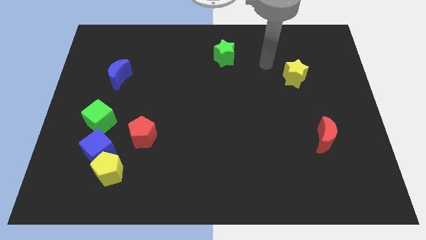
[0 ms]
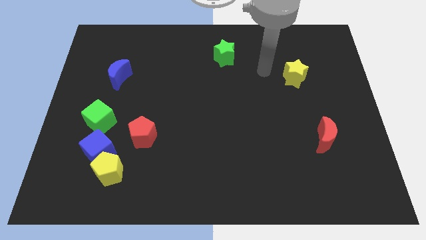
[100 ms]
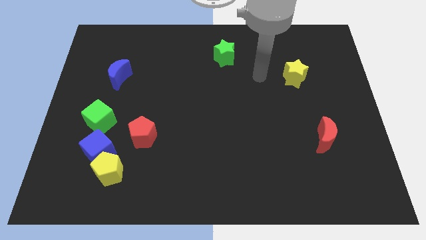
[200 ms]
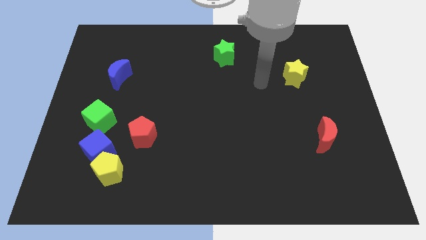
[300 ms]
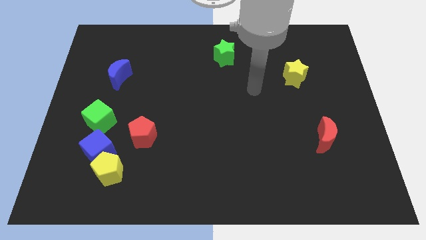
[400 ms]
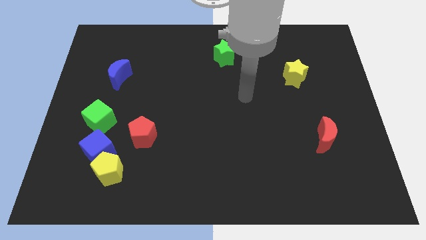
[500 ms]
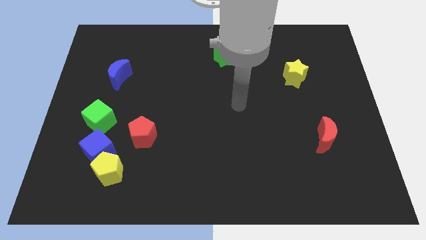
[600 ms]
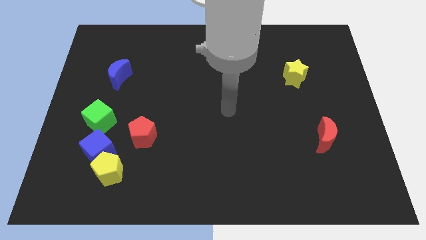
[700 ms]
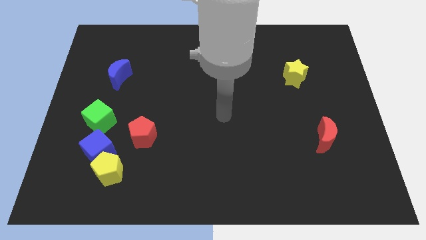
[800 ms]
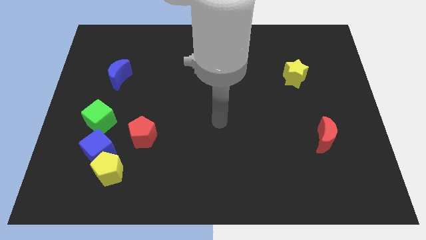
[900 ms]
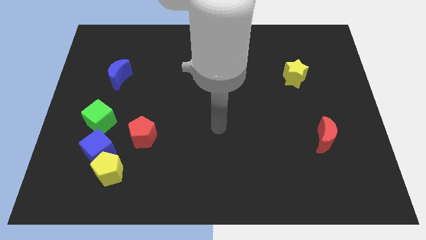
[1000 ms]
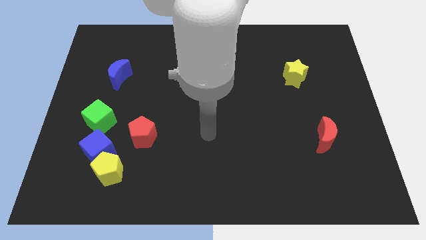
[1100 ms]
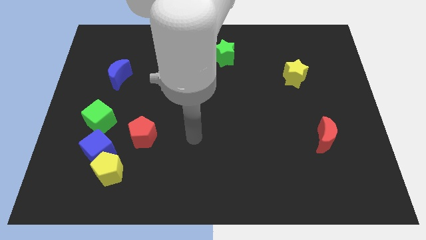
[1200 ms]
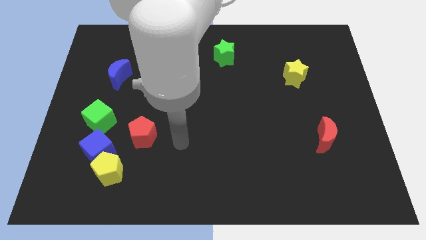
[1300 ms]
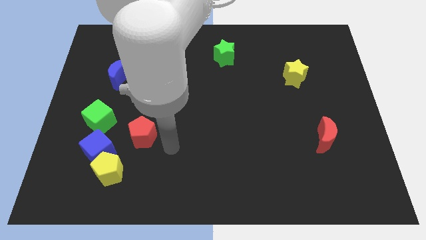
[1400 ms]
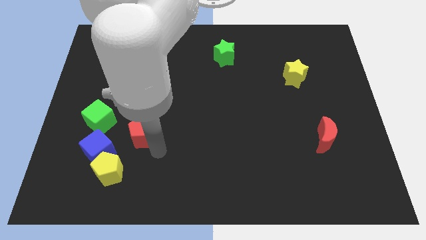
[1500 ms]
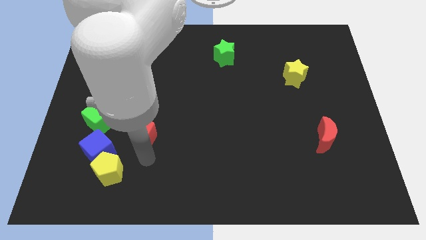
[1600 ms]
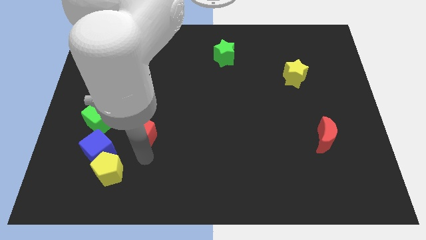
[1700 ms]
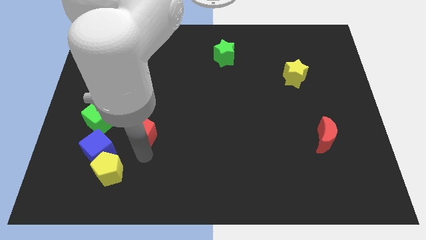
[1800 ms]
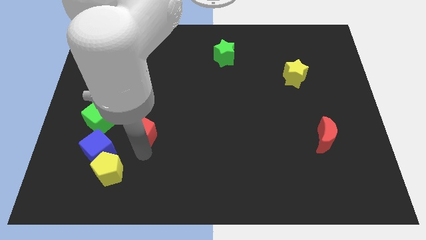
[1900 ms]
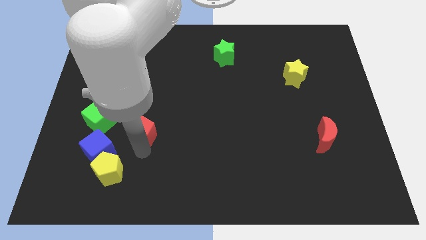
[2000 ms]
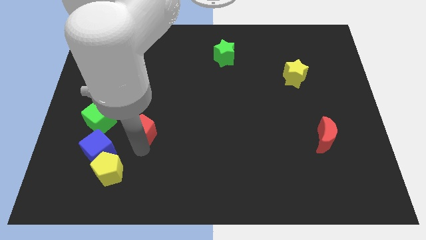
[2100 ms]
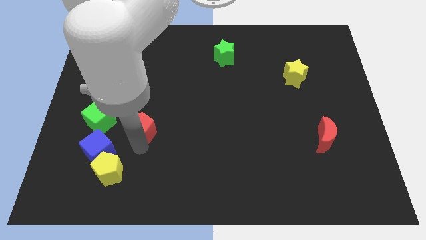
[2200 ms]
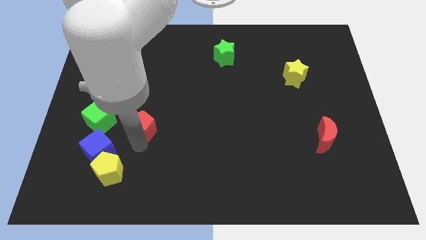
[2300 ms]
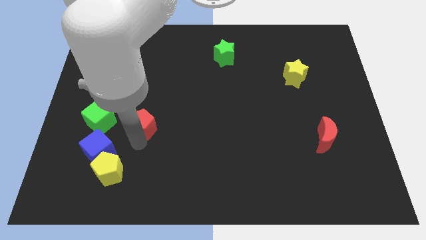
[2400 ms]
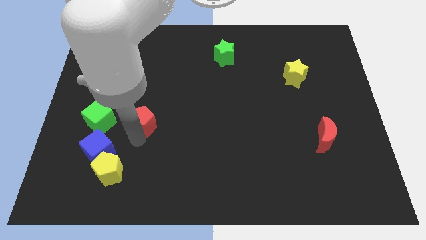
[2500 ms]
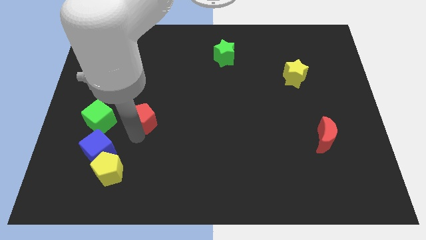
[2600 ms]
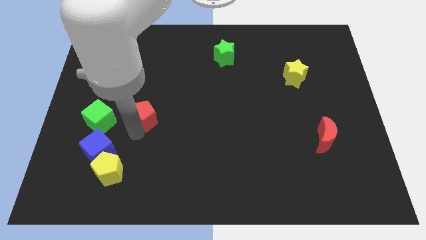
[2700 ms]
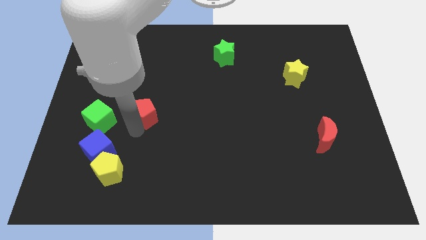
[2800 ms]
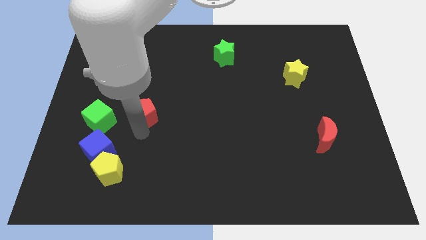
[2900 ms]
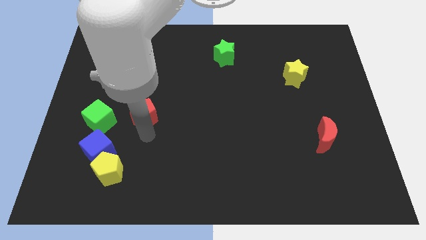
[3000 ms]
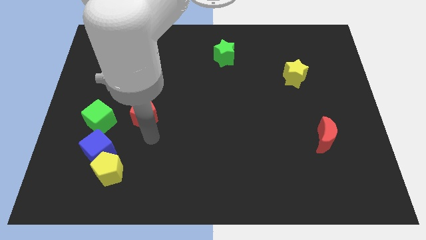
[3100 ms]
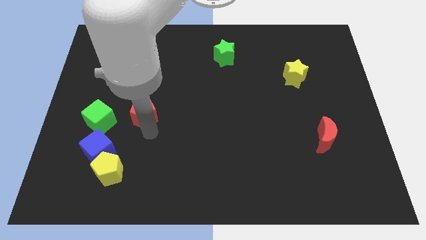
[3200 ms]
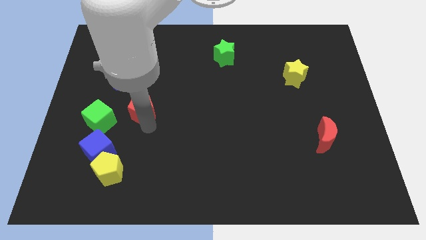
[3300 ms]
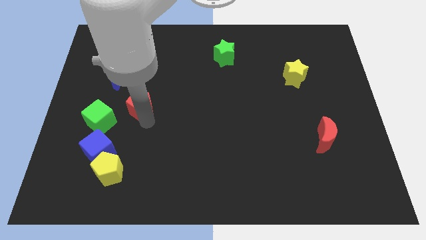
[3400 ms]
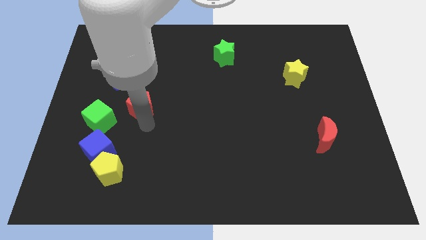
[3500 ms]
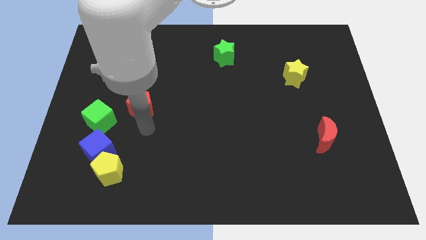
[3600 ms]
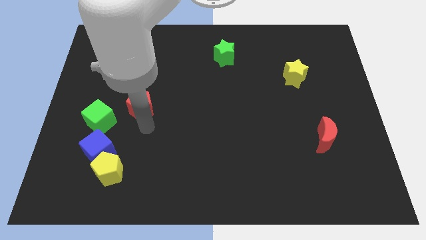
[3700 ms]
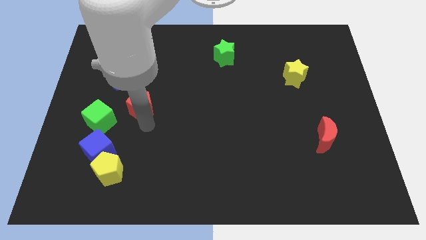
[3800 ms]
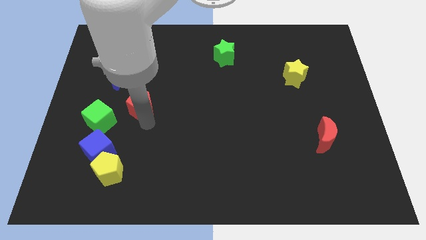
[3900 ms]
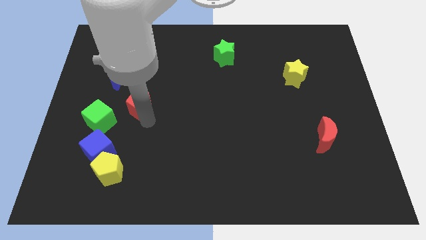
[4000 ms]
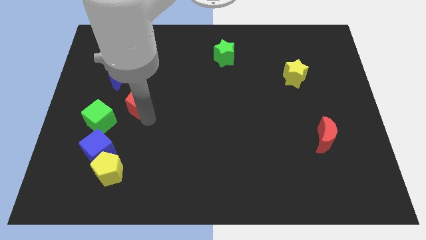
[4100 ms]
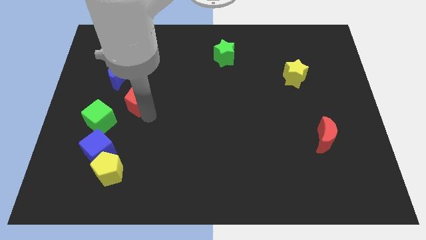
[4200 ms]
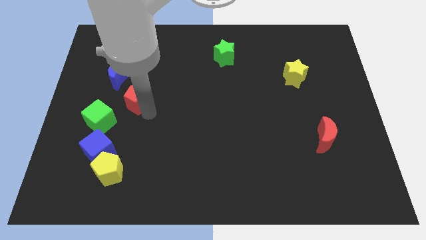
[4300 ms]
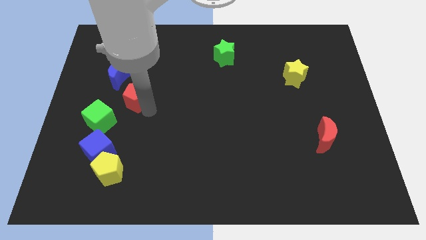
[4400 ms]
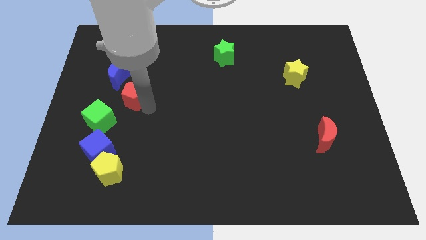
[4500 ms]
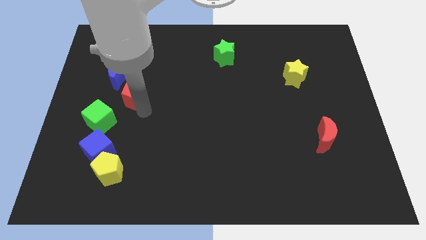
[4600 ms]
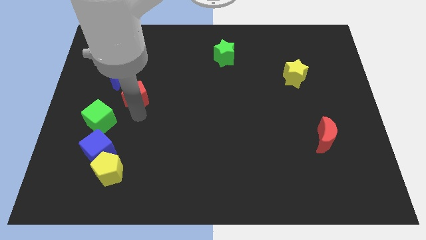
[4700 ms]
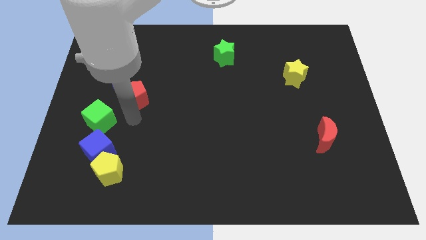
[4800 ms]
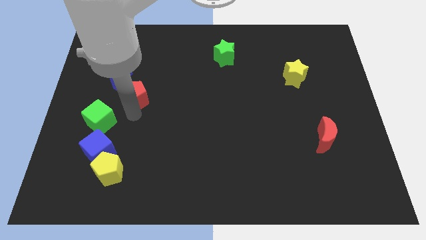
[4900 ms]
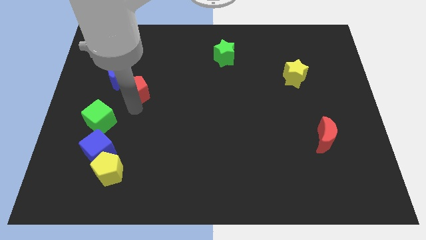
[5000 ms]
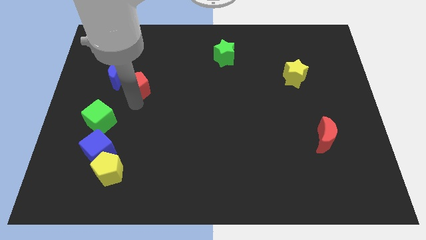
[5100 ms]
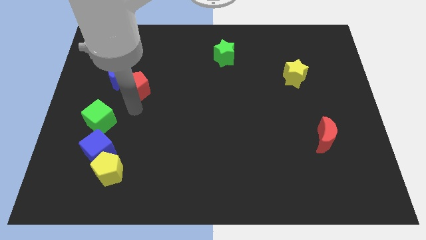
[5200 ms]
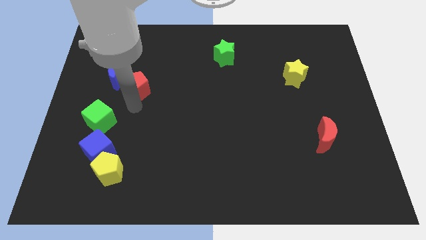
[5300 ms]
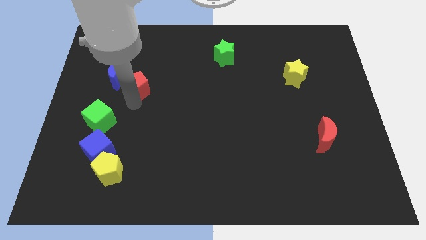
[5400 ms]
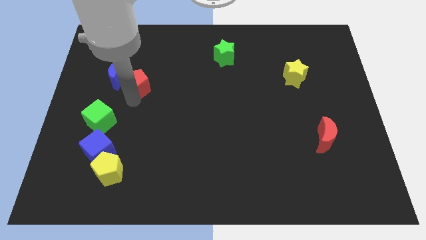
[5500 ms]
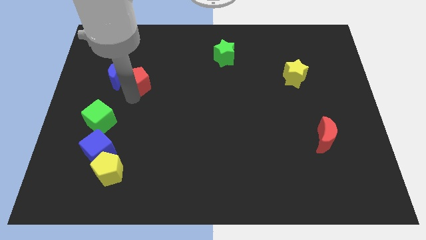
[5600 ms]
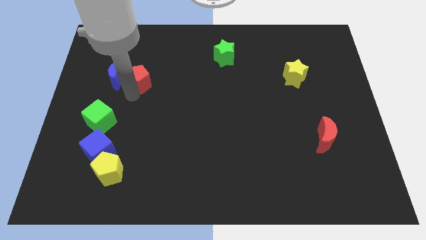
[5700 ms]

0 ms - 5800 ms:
move the red pentagon to the top right side of the blue moon

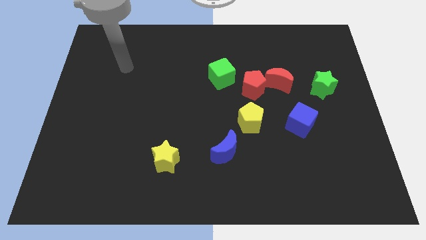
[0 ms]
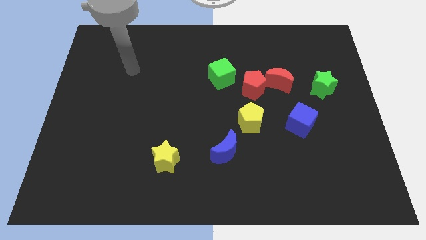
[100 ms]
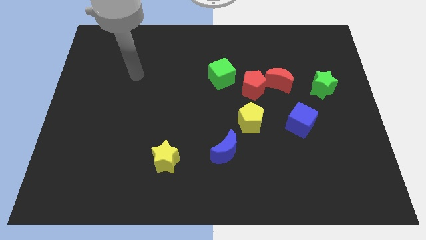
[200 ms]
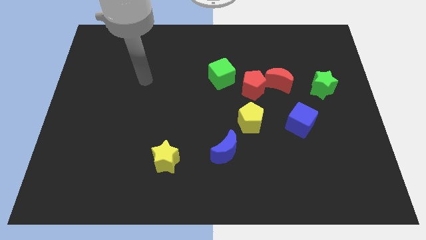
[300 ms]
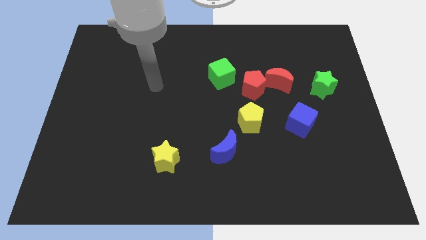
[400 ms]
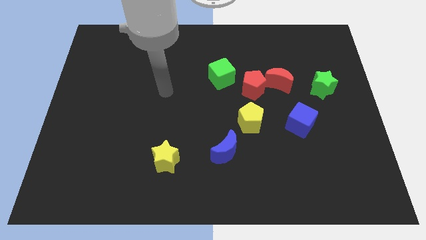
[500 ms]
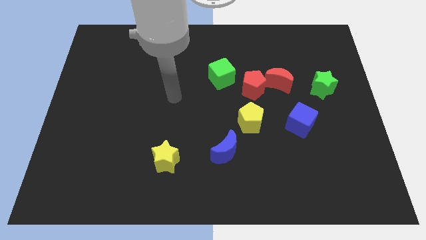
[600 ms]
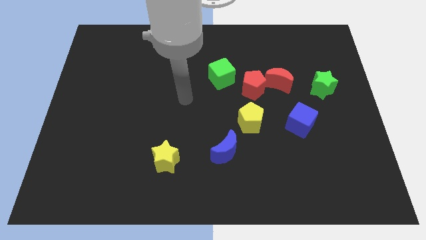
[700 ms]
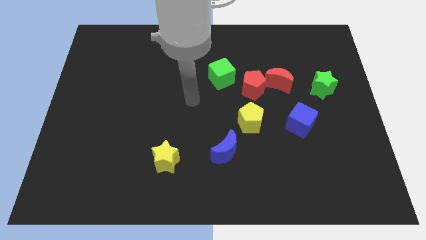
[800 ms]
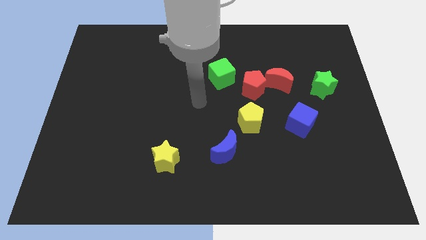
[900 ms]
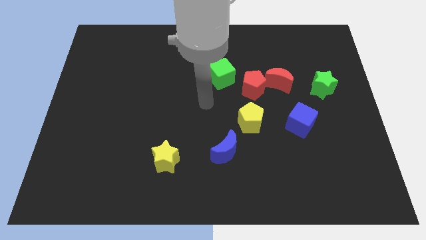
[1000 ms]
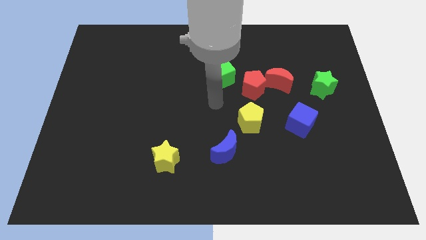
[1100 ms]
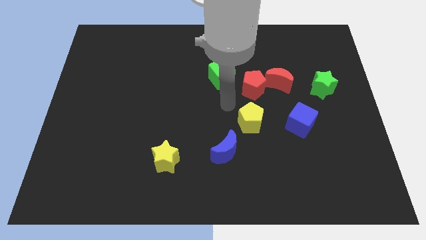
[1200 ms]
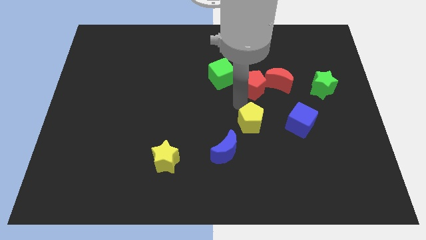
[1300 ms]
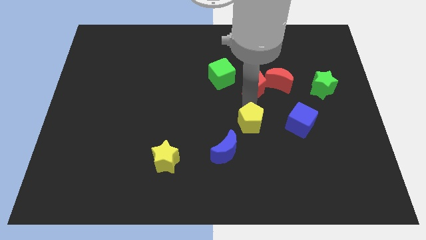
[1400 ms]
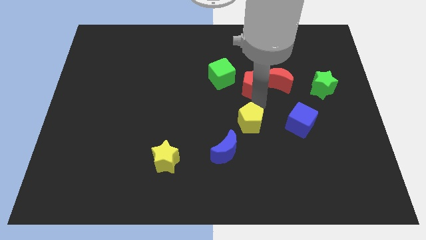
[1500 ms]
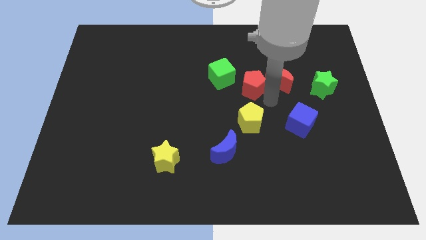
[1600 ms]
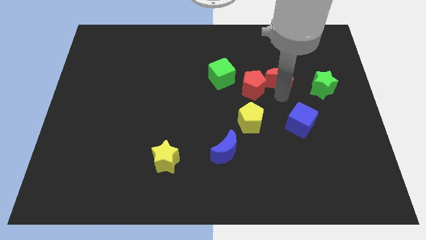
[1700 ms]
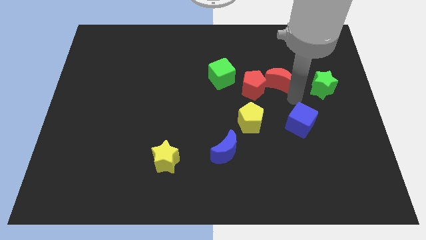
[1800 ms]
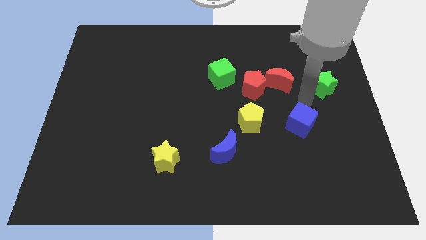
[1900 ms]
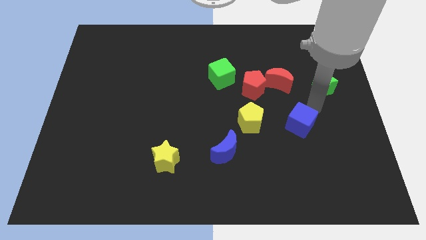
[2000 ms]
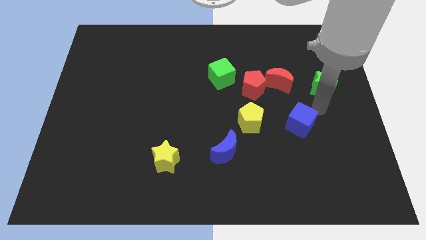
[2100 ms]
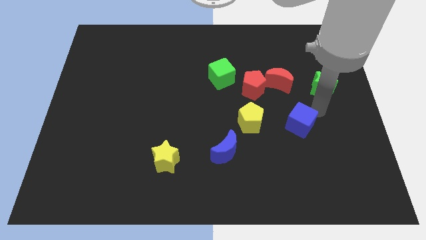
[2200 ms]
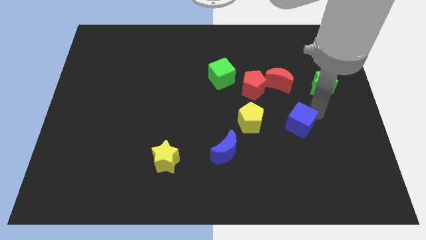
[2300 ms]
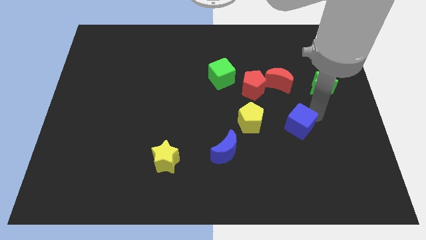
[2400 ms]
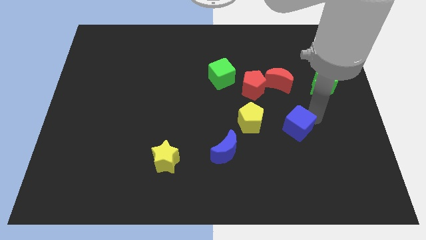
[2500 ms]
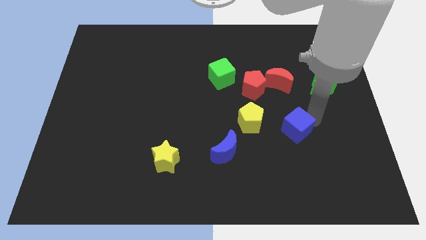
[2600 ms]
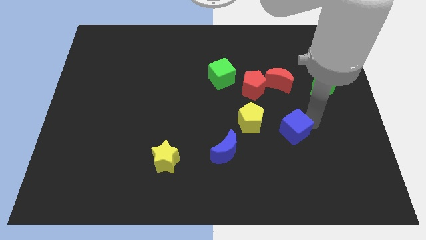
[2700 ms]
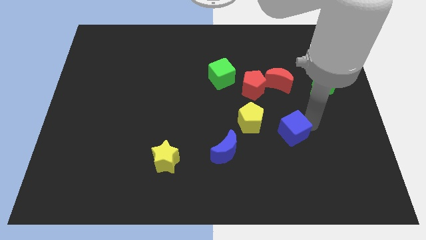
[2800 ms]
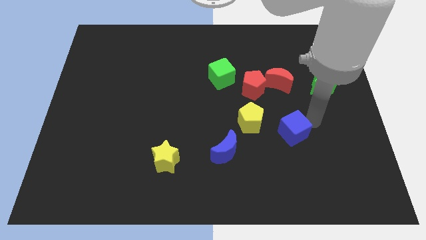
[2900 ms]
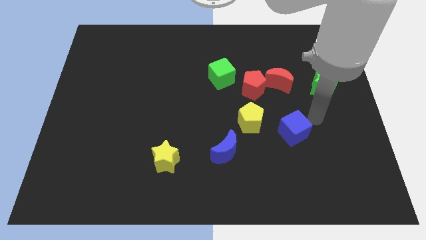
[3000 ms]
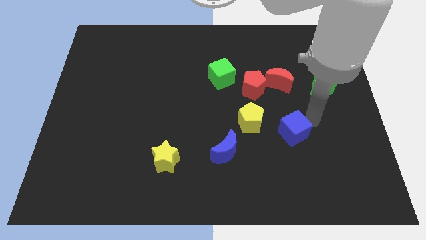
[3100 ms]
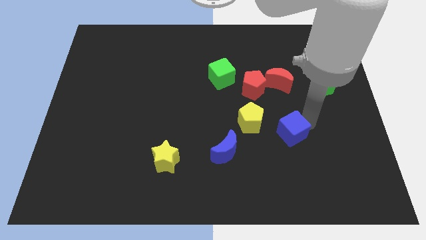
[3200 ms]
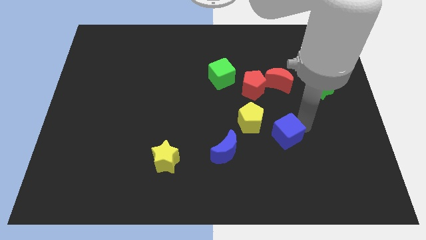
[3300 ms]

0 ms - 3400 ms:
push the blue cube right of the blue moon
